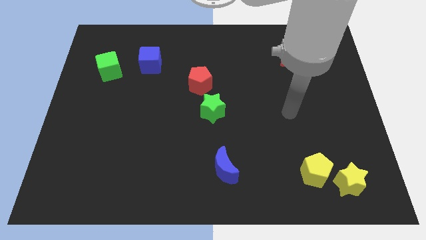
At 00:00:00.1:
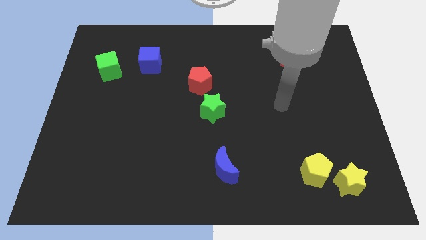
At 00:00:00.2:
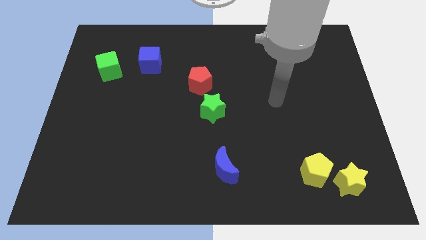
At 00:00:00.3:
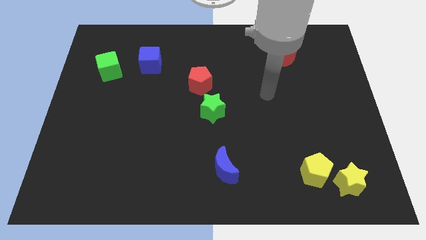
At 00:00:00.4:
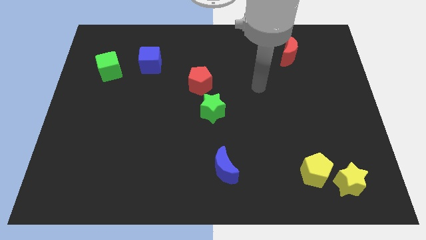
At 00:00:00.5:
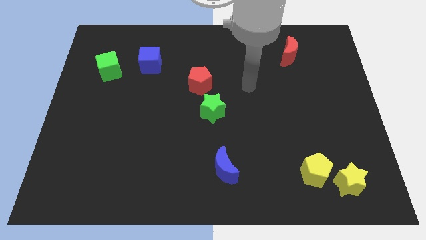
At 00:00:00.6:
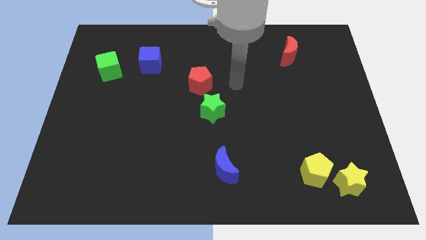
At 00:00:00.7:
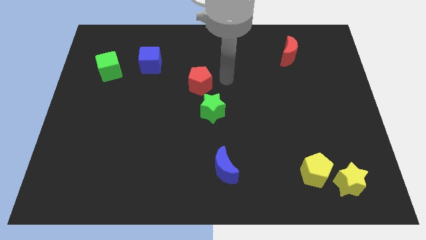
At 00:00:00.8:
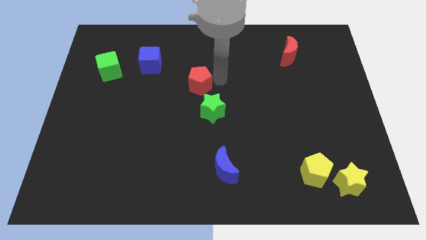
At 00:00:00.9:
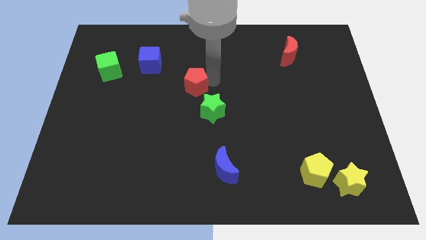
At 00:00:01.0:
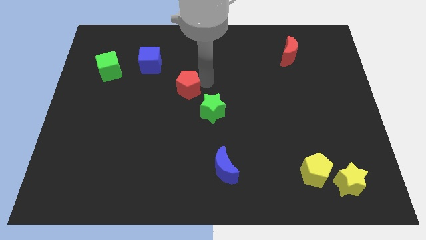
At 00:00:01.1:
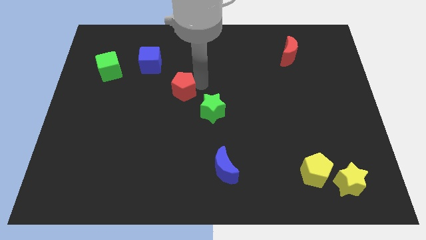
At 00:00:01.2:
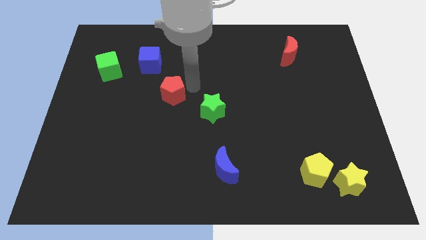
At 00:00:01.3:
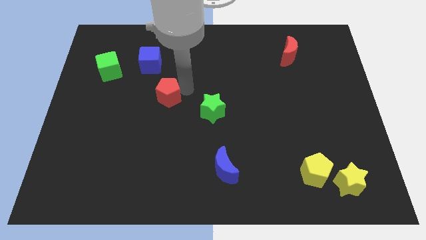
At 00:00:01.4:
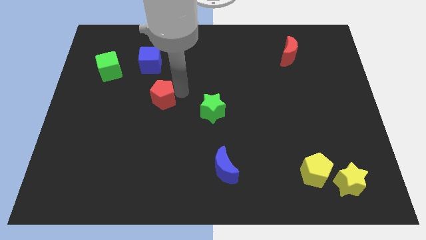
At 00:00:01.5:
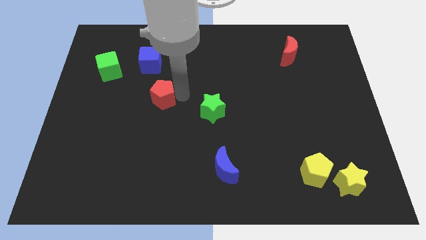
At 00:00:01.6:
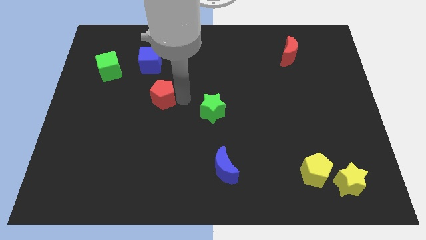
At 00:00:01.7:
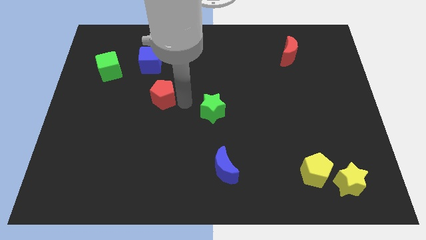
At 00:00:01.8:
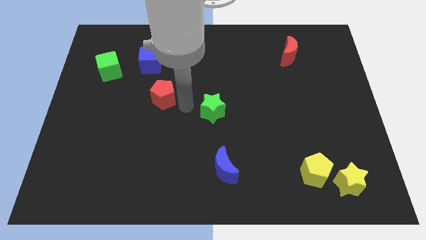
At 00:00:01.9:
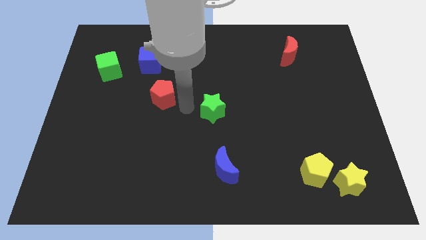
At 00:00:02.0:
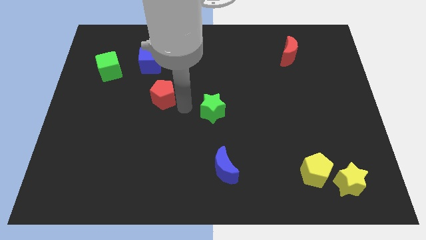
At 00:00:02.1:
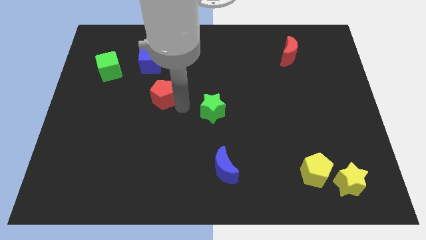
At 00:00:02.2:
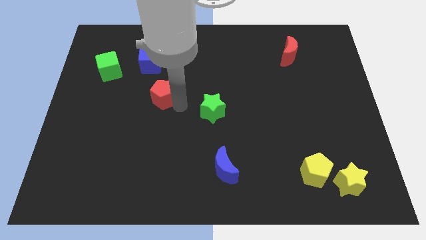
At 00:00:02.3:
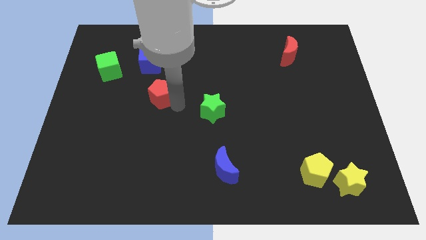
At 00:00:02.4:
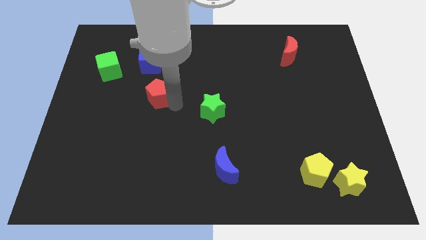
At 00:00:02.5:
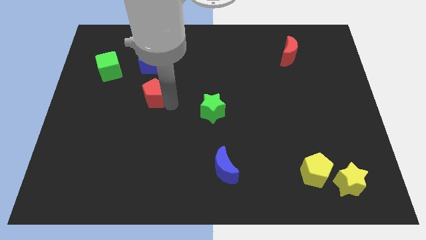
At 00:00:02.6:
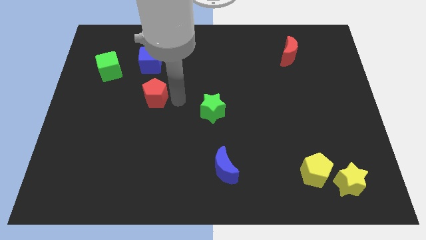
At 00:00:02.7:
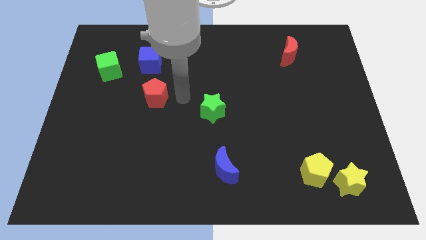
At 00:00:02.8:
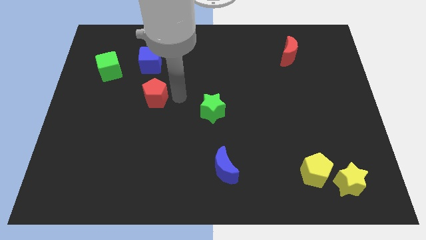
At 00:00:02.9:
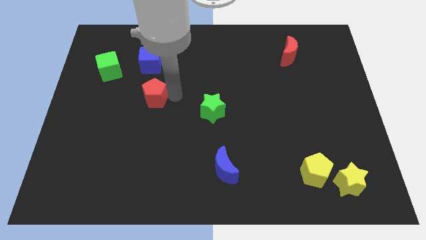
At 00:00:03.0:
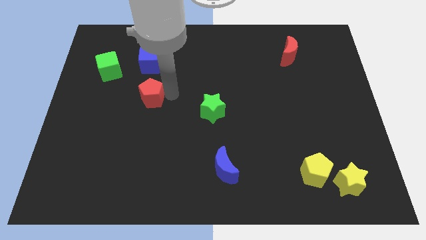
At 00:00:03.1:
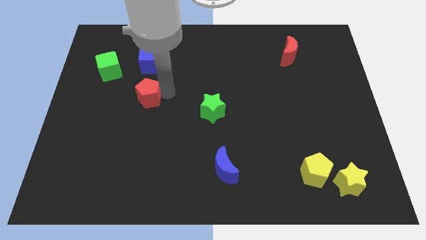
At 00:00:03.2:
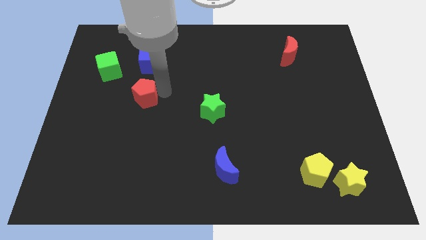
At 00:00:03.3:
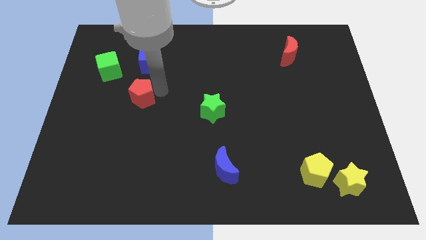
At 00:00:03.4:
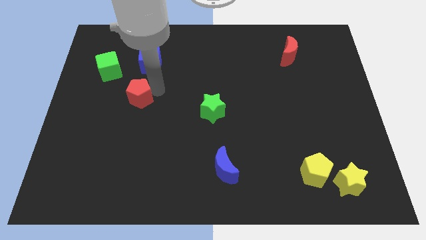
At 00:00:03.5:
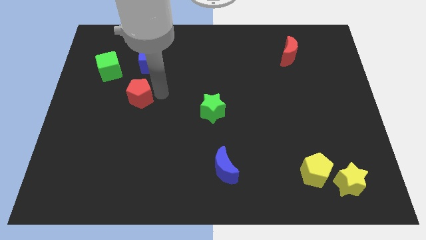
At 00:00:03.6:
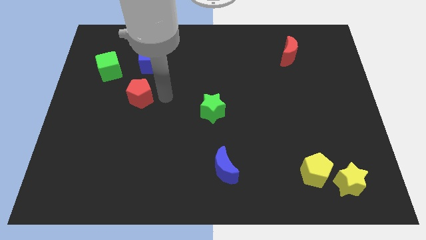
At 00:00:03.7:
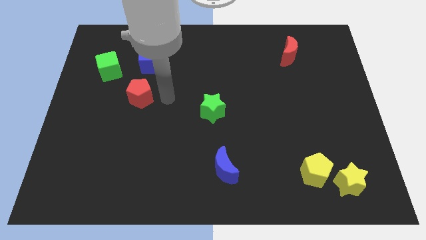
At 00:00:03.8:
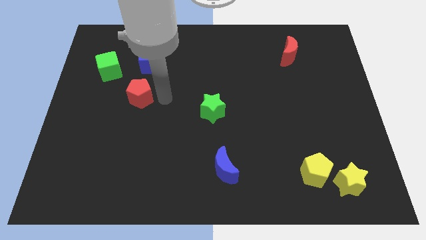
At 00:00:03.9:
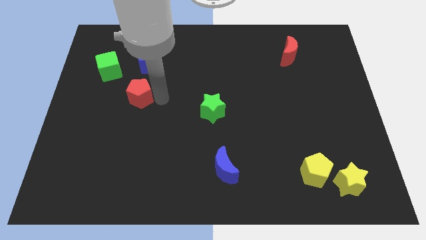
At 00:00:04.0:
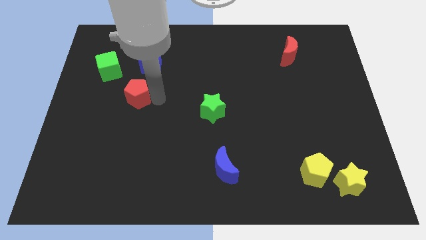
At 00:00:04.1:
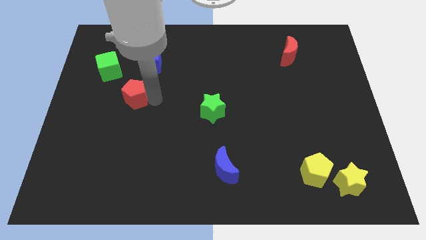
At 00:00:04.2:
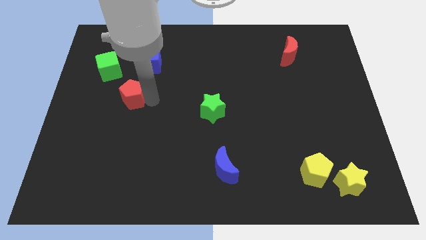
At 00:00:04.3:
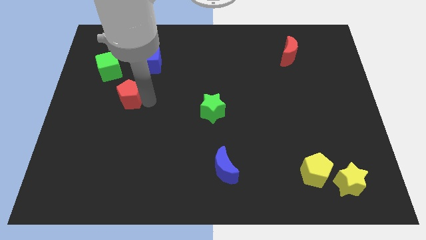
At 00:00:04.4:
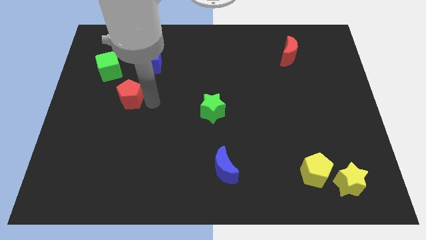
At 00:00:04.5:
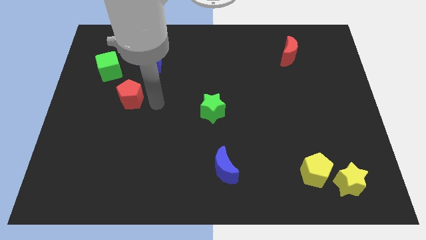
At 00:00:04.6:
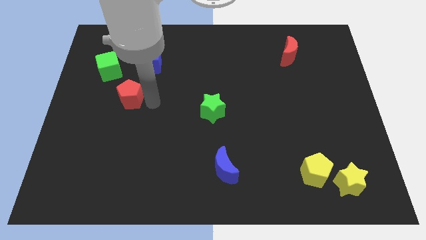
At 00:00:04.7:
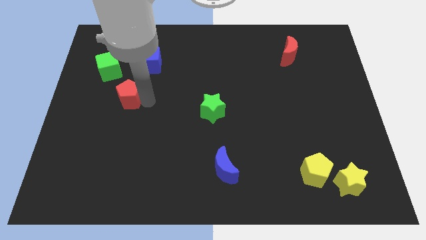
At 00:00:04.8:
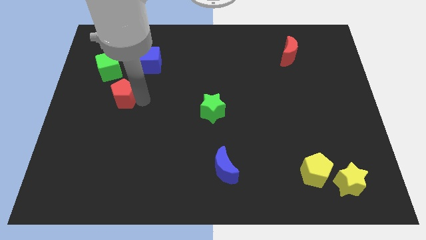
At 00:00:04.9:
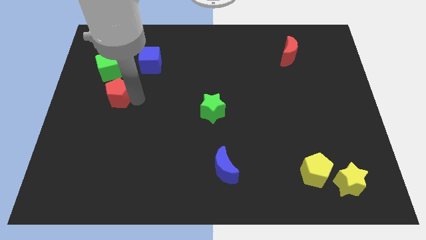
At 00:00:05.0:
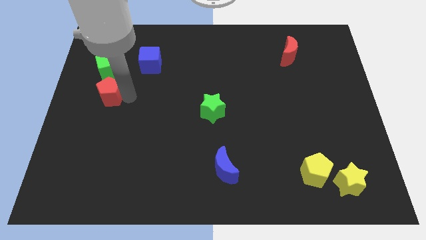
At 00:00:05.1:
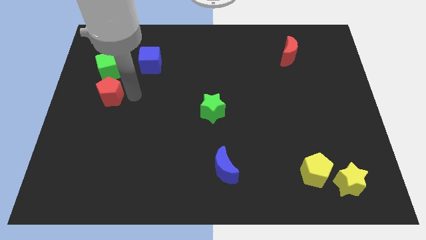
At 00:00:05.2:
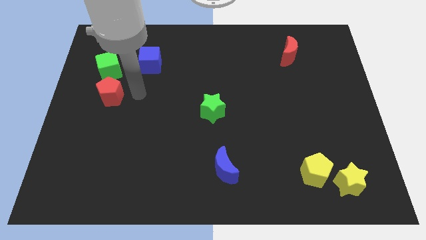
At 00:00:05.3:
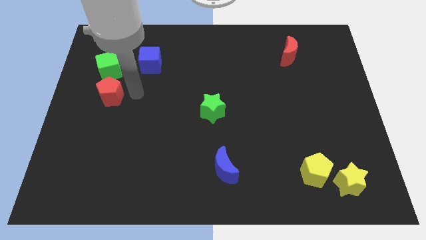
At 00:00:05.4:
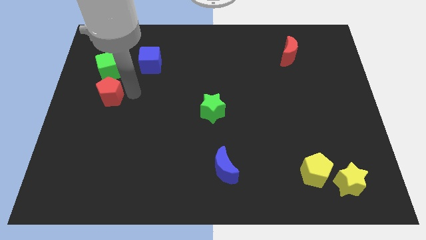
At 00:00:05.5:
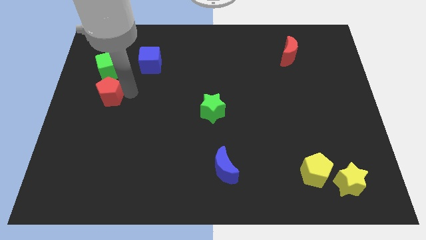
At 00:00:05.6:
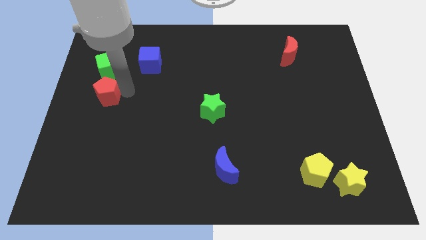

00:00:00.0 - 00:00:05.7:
put the red pentagon to the center left

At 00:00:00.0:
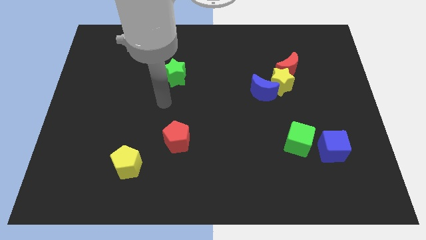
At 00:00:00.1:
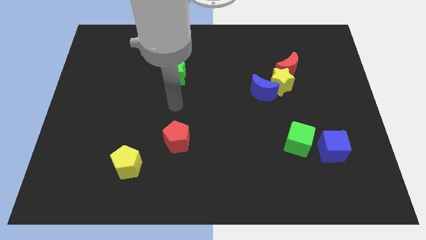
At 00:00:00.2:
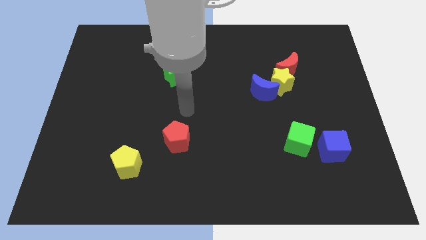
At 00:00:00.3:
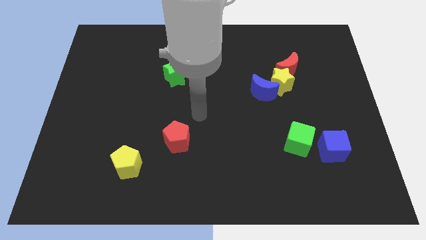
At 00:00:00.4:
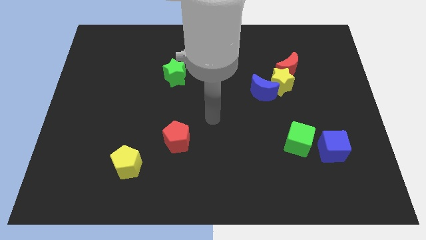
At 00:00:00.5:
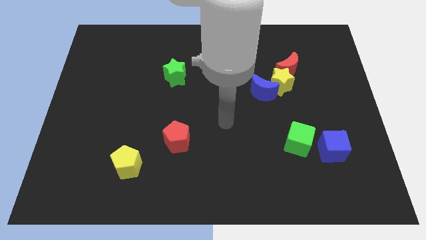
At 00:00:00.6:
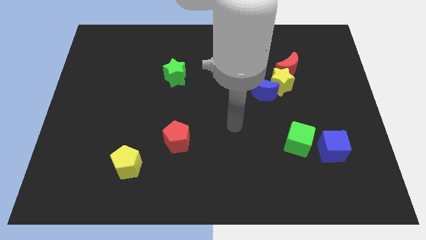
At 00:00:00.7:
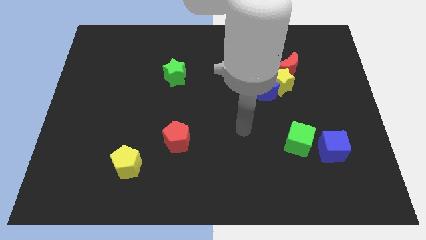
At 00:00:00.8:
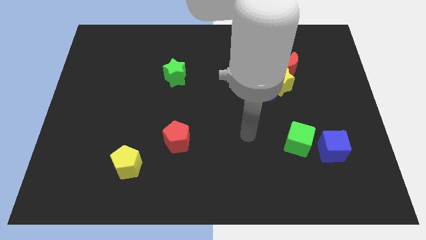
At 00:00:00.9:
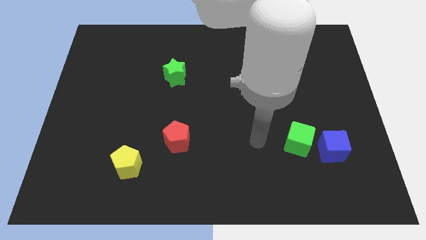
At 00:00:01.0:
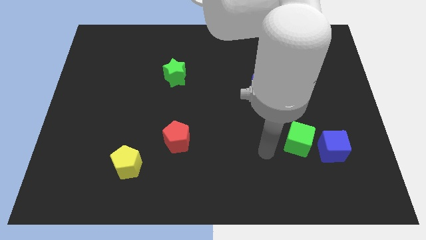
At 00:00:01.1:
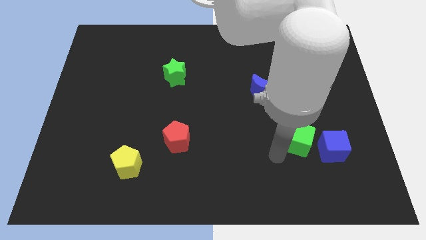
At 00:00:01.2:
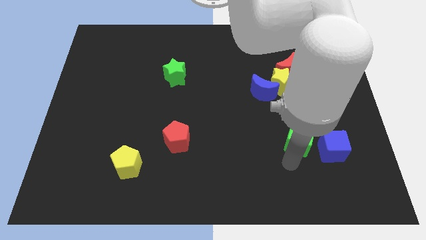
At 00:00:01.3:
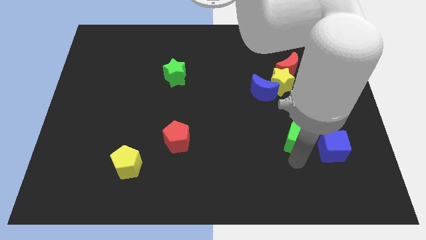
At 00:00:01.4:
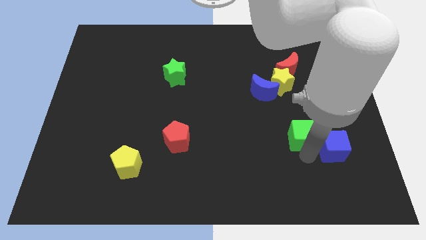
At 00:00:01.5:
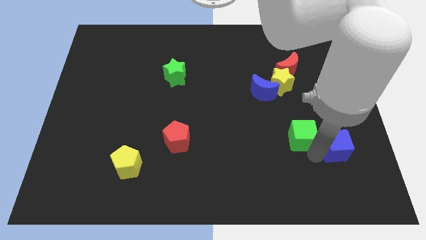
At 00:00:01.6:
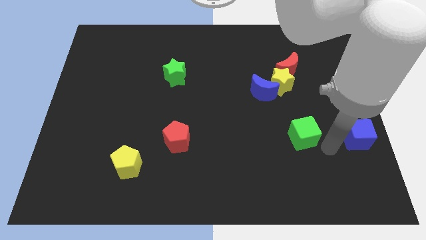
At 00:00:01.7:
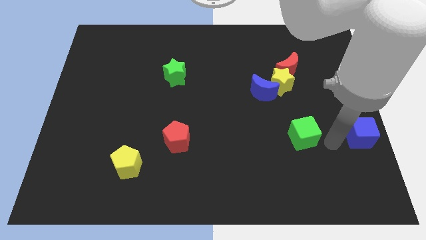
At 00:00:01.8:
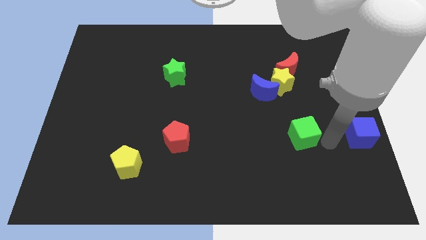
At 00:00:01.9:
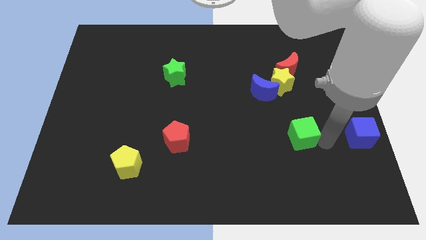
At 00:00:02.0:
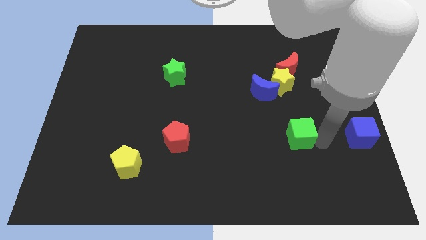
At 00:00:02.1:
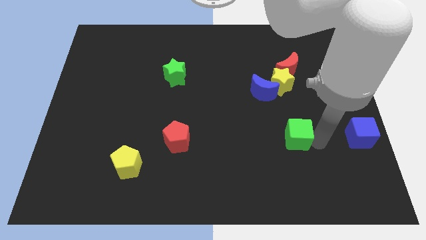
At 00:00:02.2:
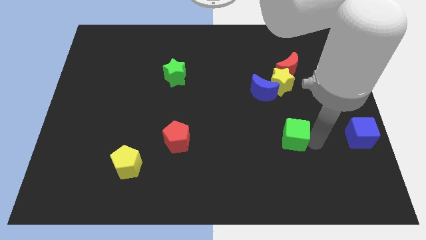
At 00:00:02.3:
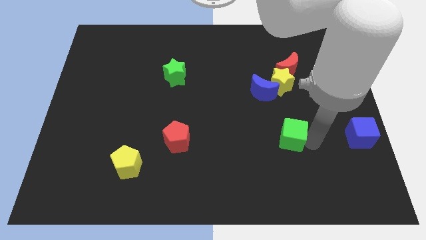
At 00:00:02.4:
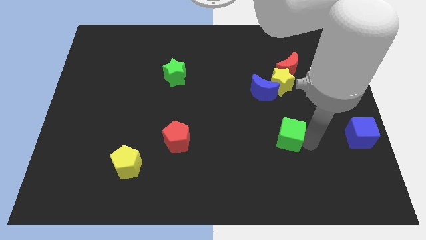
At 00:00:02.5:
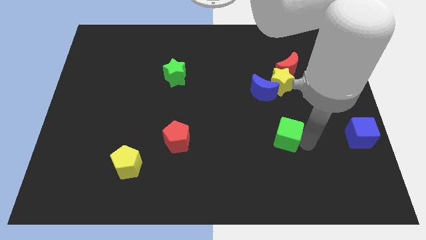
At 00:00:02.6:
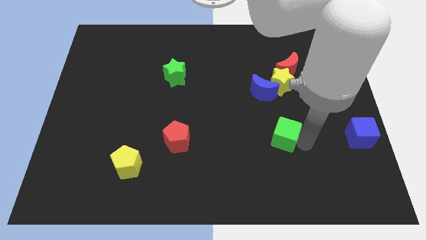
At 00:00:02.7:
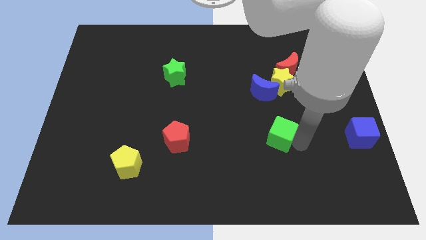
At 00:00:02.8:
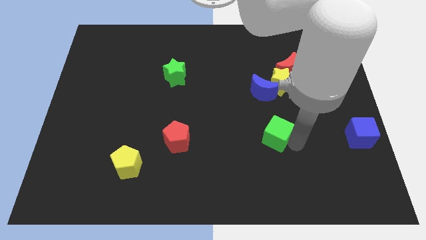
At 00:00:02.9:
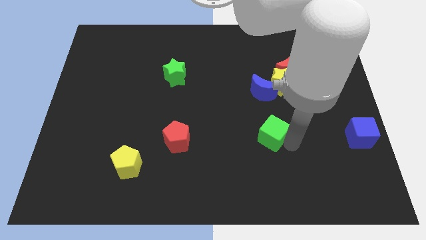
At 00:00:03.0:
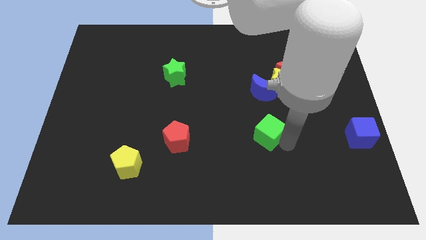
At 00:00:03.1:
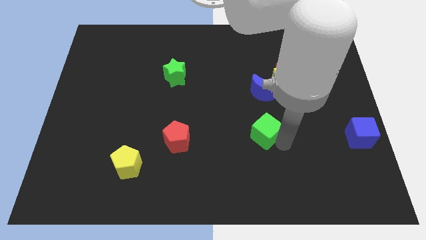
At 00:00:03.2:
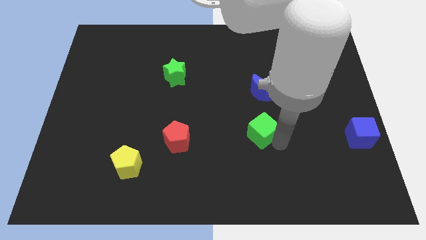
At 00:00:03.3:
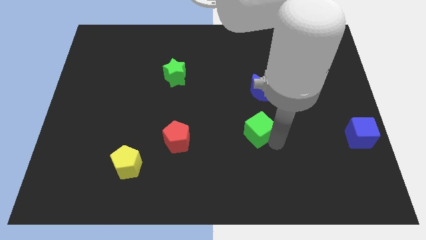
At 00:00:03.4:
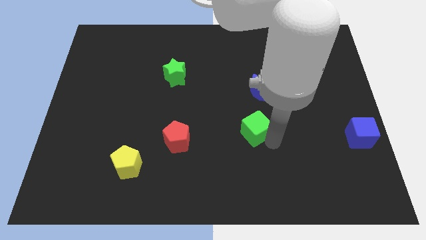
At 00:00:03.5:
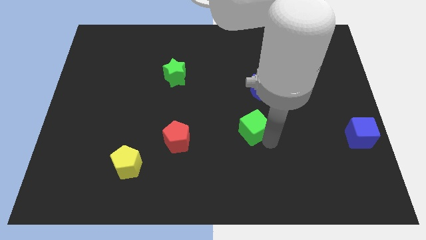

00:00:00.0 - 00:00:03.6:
push the green cube to the middle of the board
